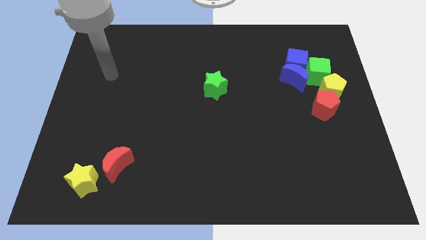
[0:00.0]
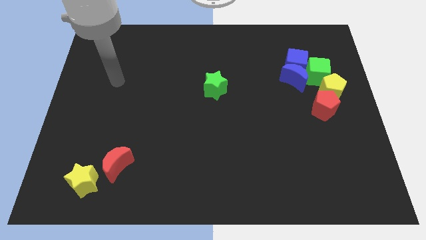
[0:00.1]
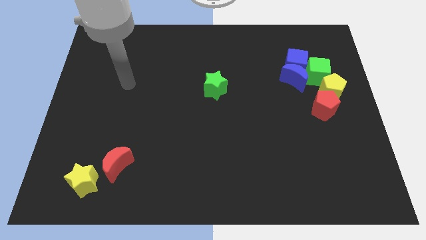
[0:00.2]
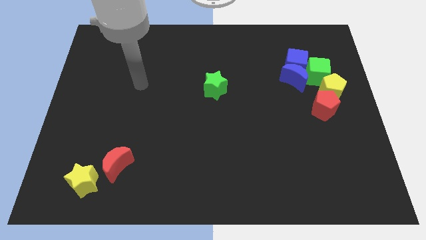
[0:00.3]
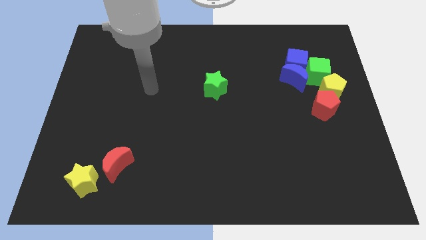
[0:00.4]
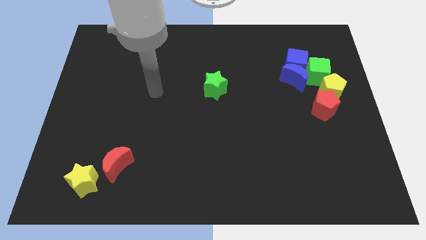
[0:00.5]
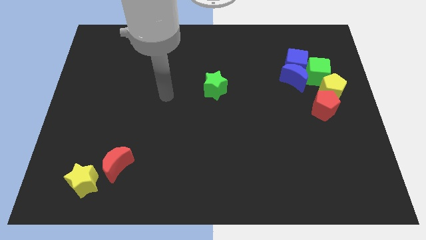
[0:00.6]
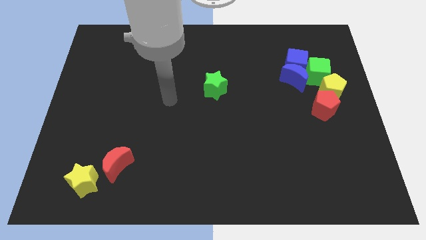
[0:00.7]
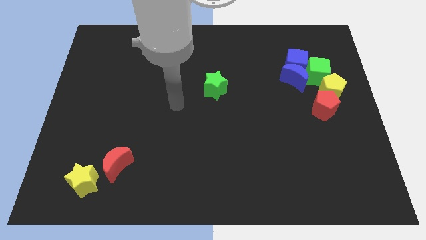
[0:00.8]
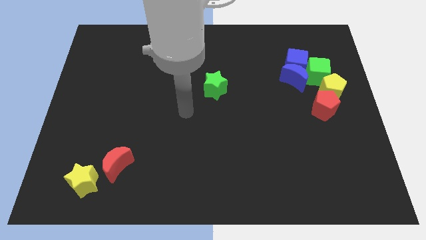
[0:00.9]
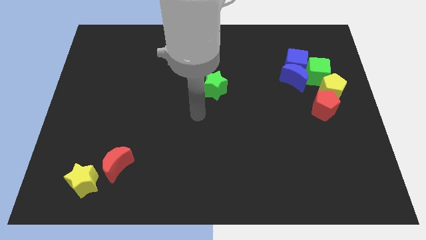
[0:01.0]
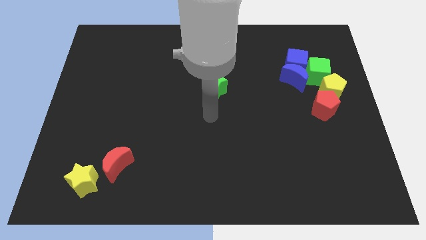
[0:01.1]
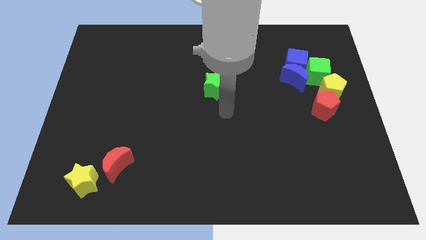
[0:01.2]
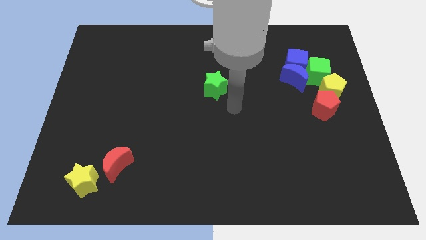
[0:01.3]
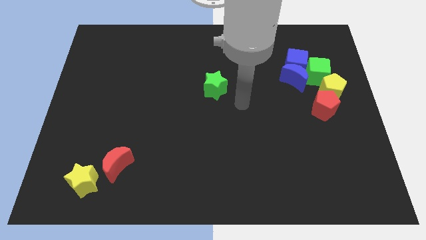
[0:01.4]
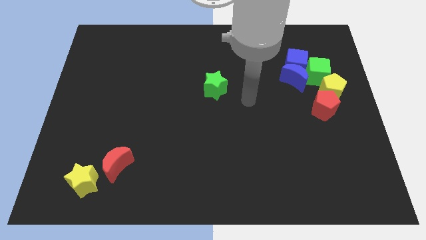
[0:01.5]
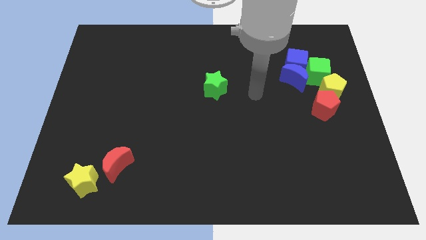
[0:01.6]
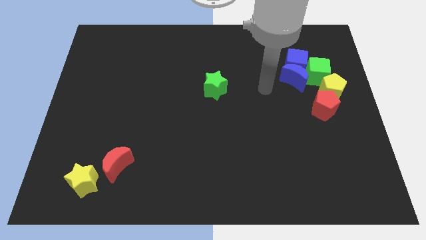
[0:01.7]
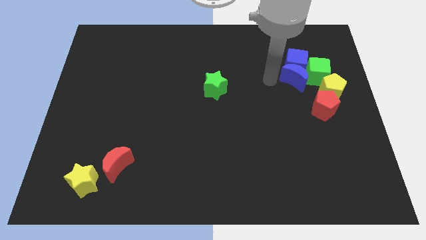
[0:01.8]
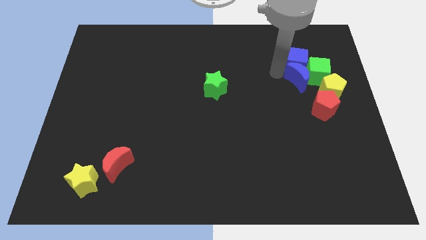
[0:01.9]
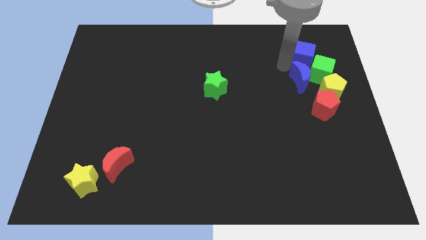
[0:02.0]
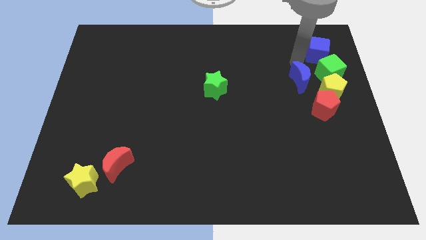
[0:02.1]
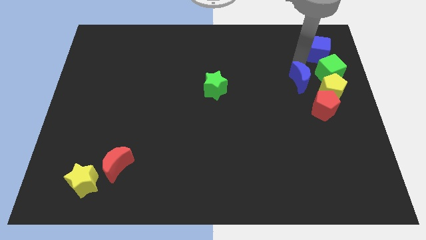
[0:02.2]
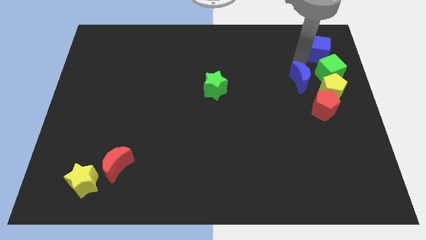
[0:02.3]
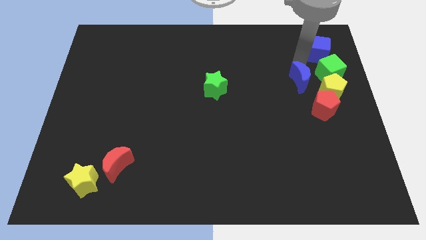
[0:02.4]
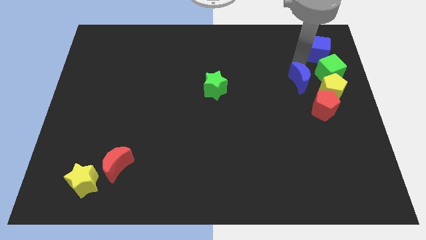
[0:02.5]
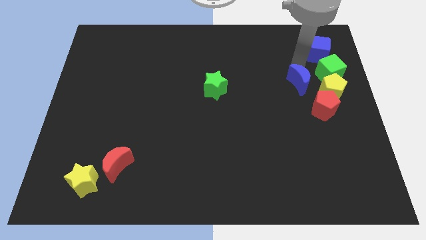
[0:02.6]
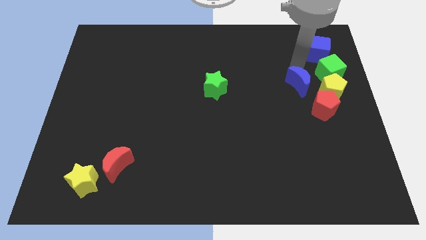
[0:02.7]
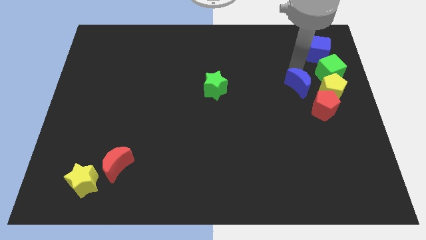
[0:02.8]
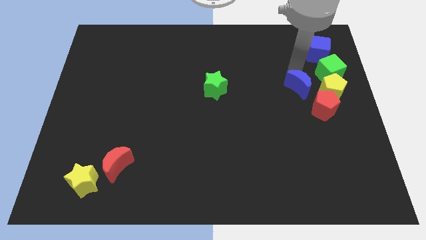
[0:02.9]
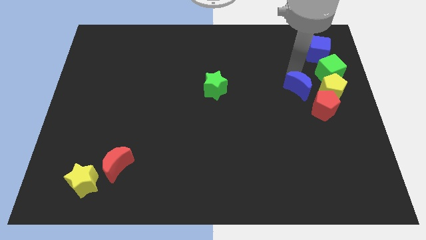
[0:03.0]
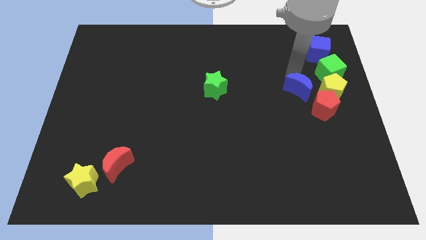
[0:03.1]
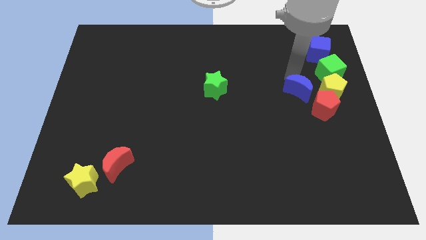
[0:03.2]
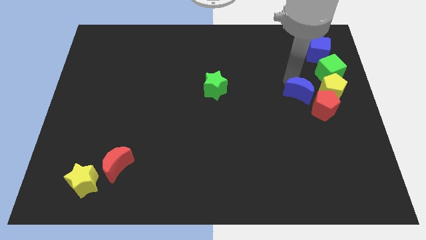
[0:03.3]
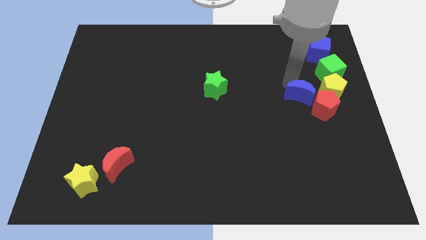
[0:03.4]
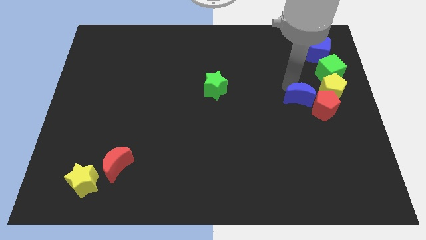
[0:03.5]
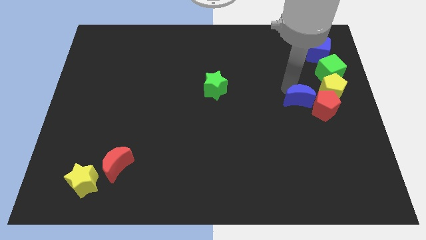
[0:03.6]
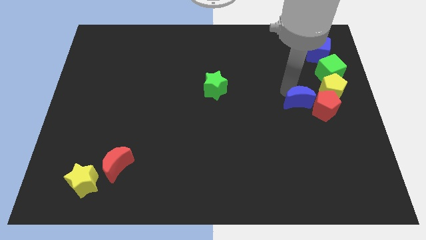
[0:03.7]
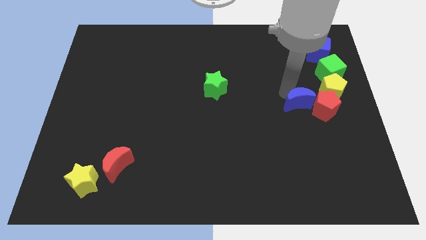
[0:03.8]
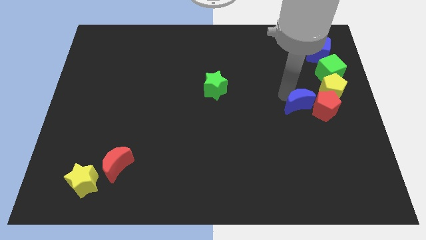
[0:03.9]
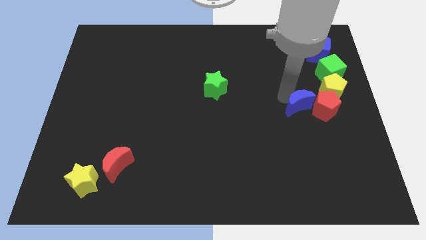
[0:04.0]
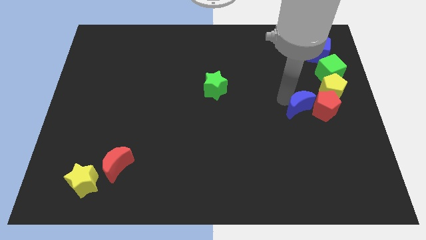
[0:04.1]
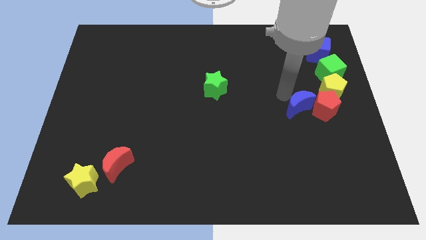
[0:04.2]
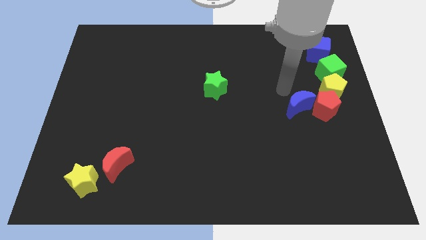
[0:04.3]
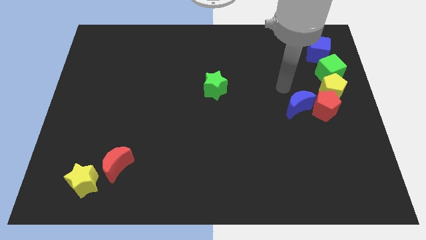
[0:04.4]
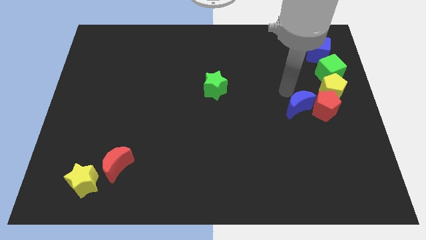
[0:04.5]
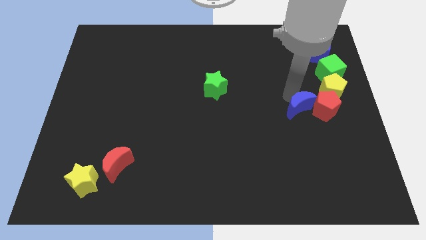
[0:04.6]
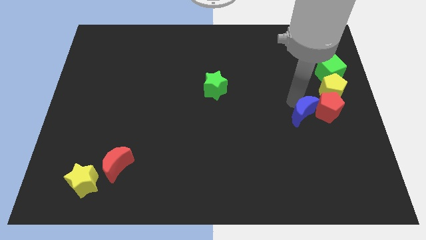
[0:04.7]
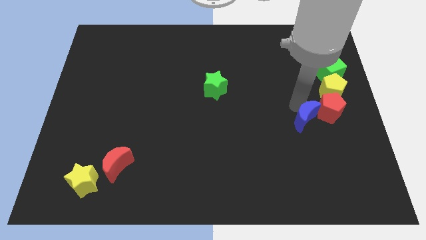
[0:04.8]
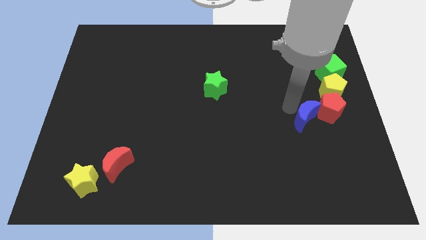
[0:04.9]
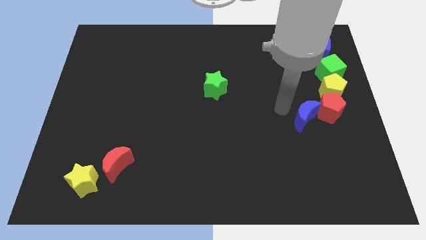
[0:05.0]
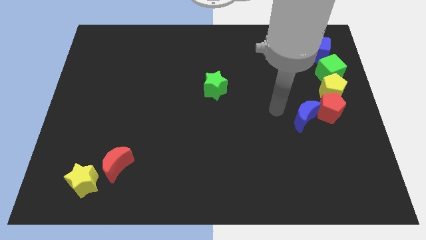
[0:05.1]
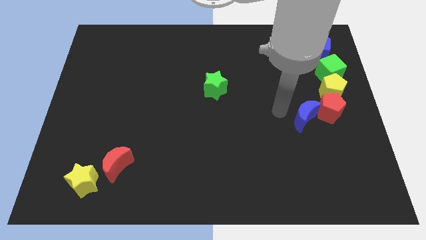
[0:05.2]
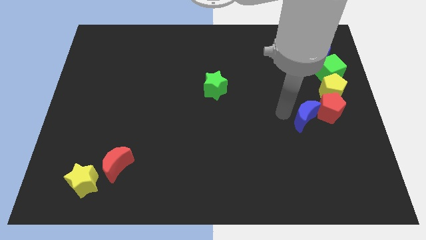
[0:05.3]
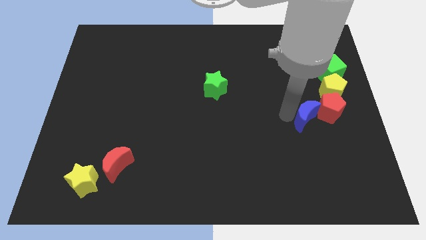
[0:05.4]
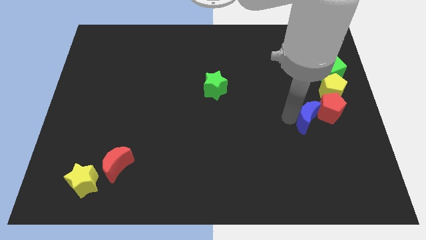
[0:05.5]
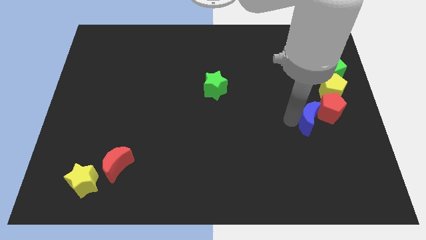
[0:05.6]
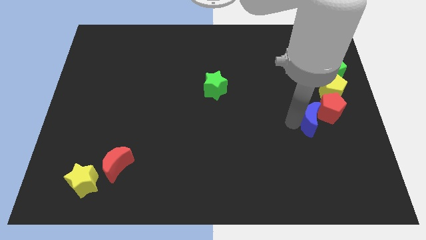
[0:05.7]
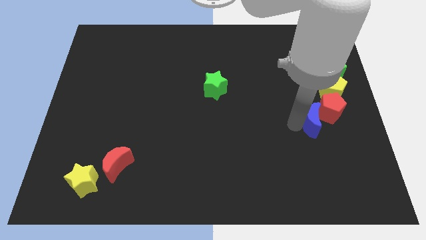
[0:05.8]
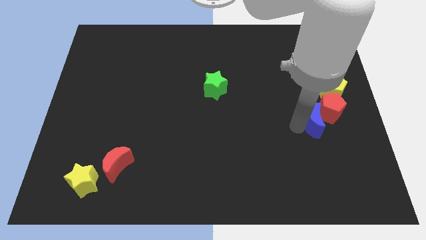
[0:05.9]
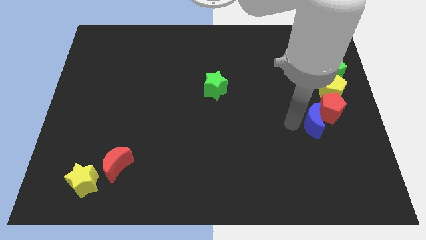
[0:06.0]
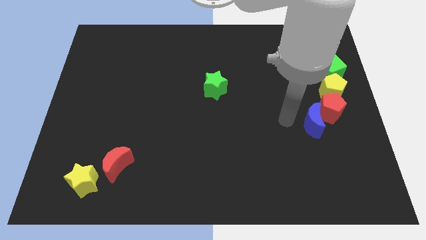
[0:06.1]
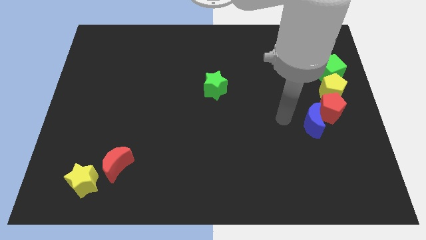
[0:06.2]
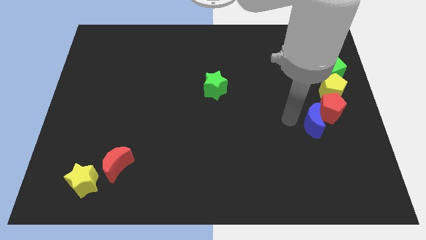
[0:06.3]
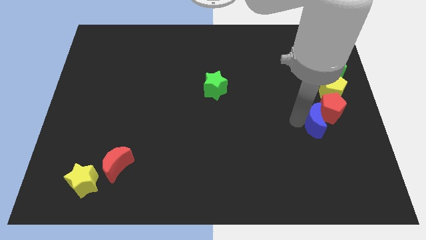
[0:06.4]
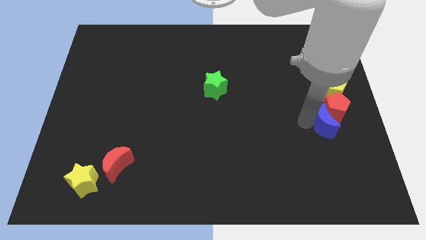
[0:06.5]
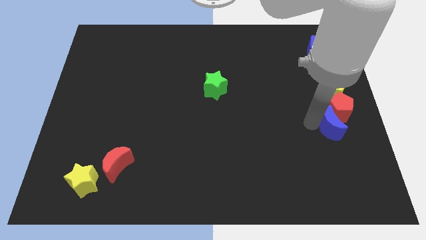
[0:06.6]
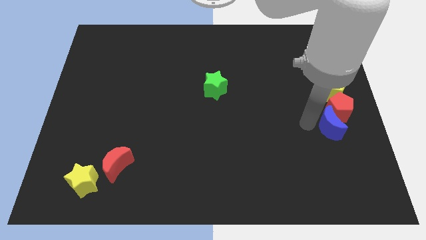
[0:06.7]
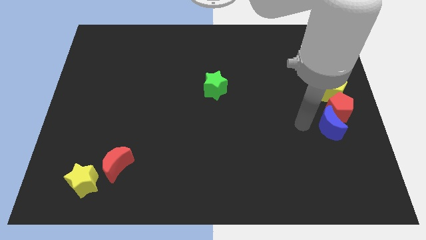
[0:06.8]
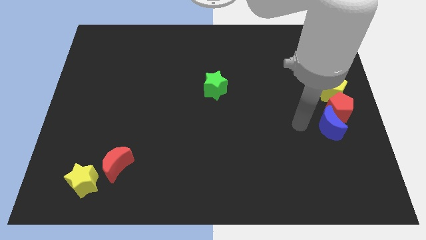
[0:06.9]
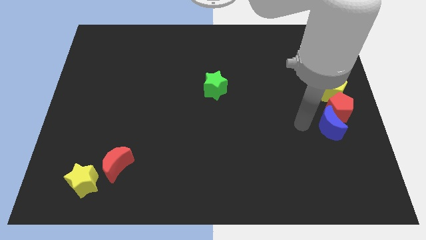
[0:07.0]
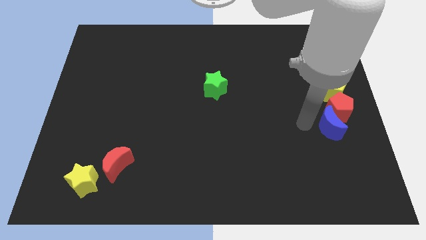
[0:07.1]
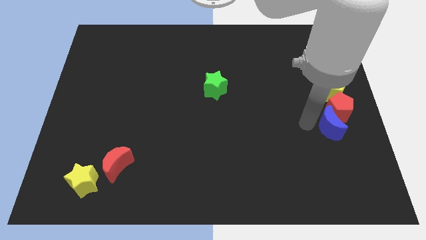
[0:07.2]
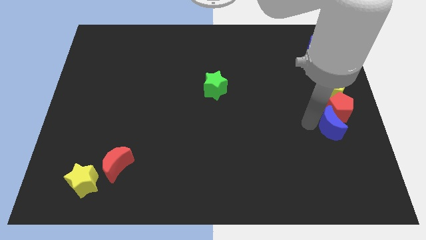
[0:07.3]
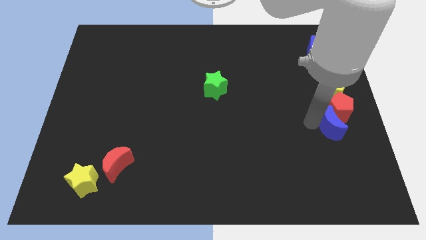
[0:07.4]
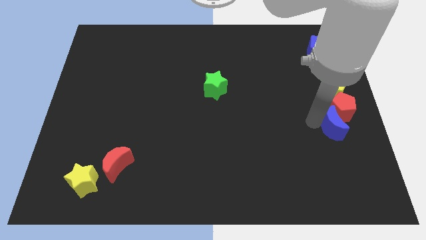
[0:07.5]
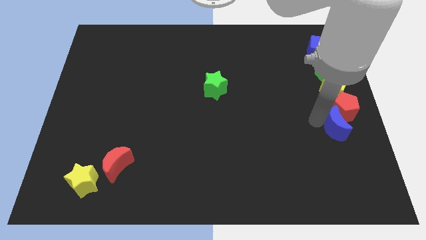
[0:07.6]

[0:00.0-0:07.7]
push the blue moon to the center right
